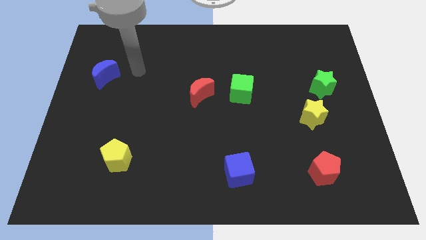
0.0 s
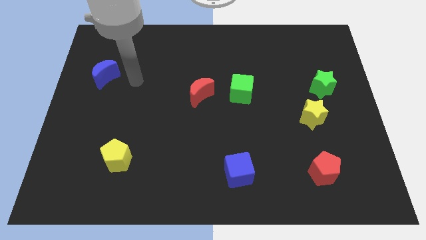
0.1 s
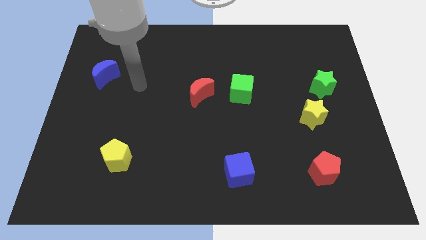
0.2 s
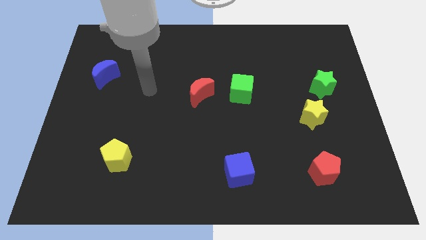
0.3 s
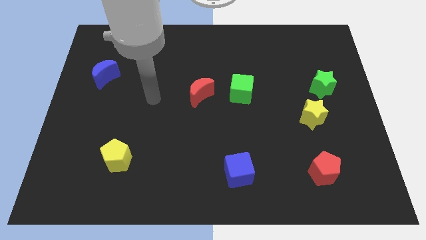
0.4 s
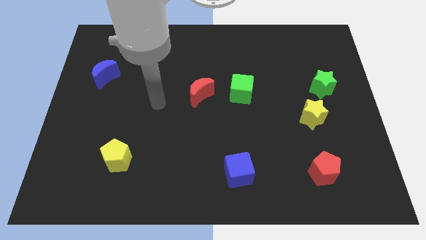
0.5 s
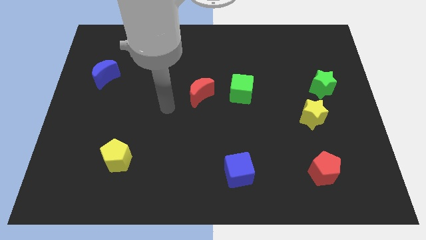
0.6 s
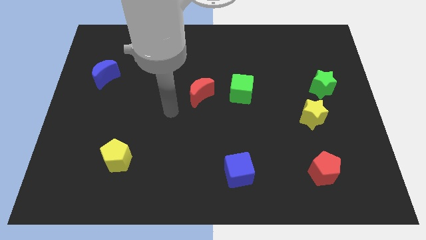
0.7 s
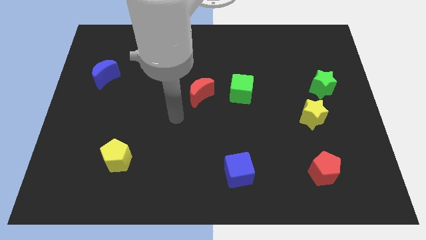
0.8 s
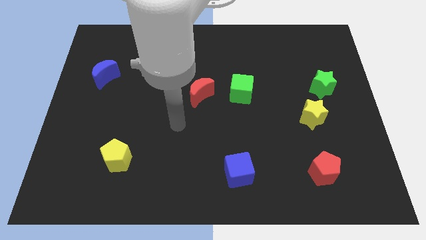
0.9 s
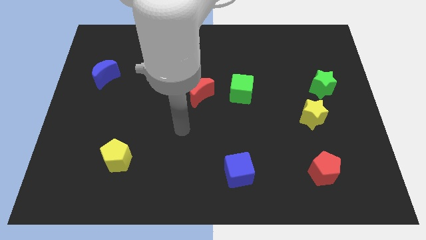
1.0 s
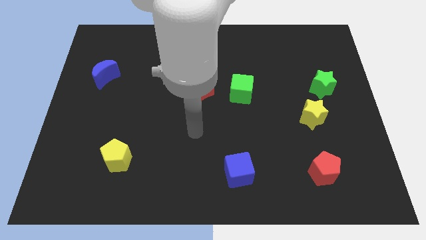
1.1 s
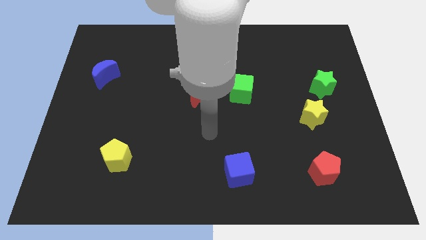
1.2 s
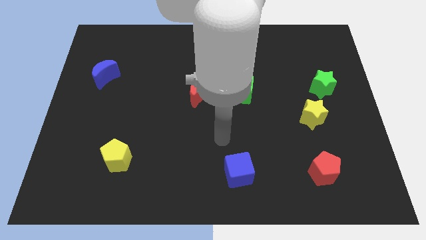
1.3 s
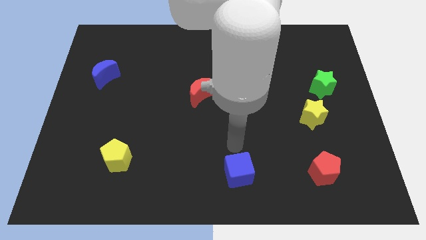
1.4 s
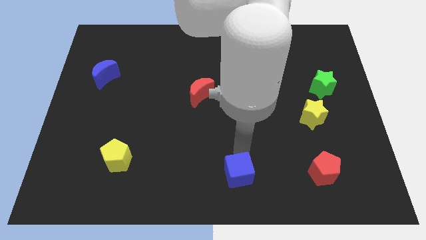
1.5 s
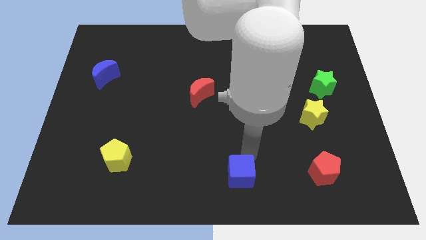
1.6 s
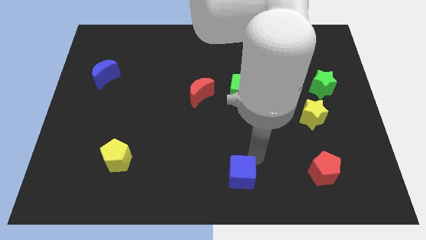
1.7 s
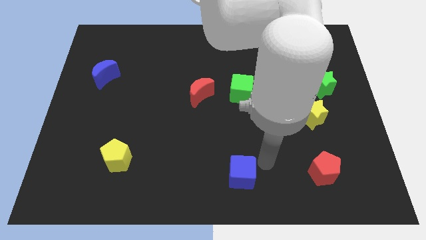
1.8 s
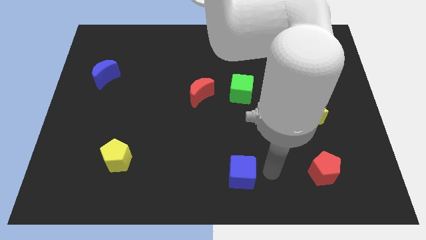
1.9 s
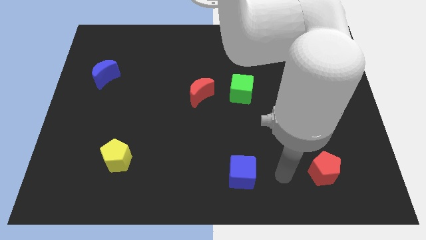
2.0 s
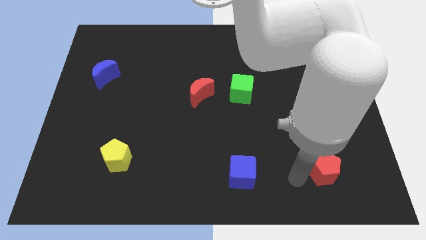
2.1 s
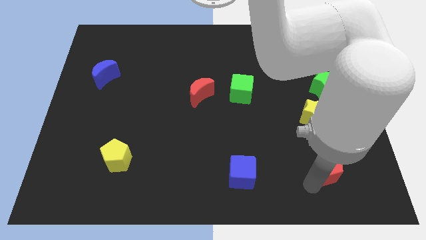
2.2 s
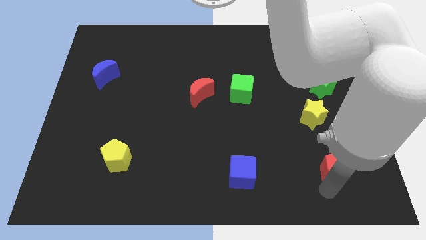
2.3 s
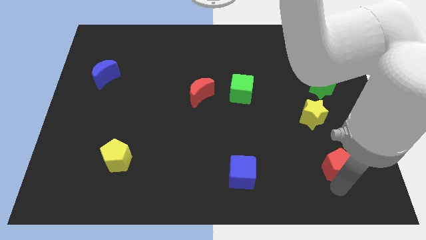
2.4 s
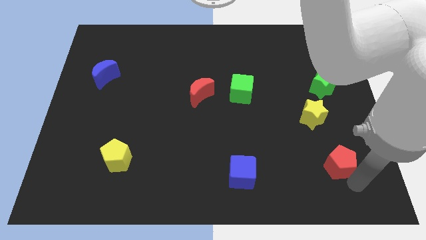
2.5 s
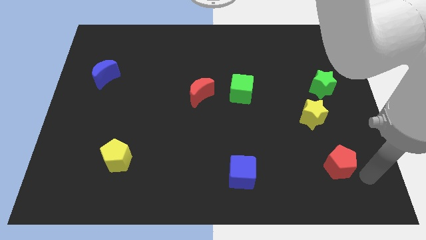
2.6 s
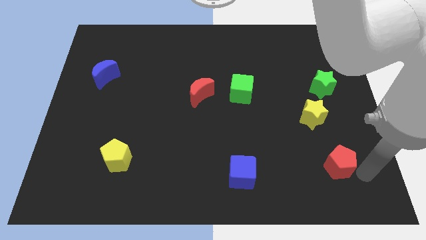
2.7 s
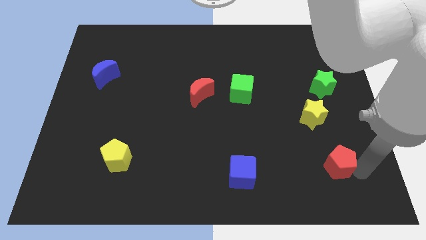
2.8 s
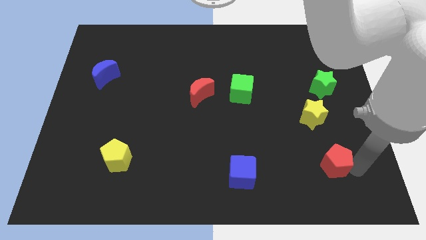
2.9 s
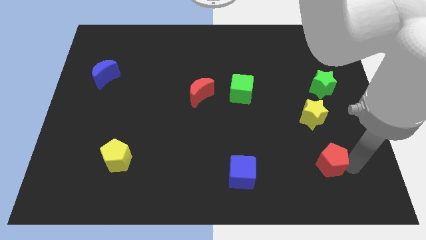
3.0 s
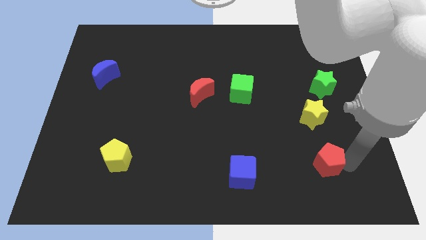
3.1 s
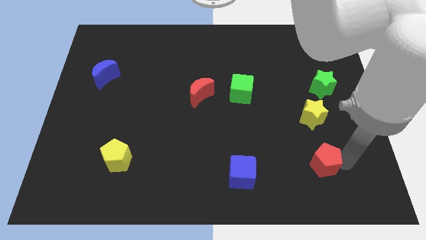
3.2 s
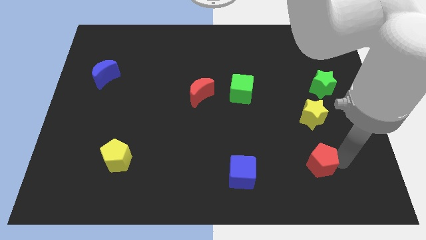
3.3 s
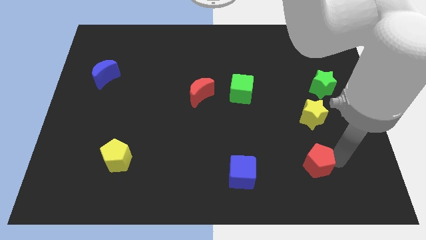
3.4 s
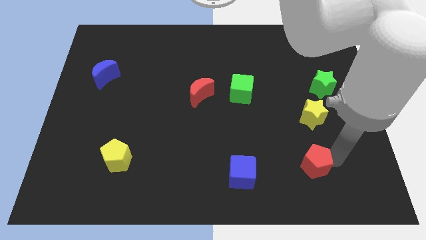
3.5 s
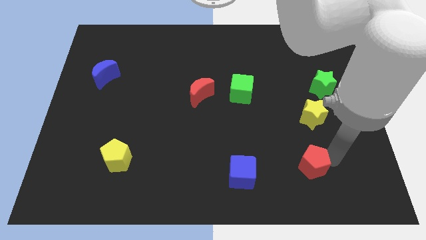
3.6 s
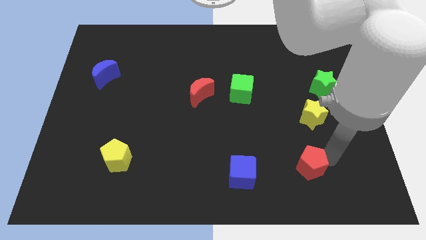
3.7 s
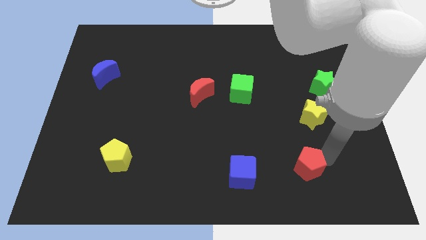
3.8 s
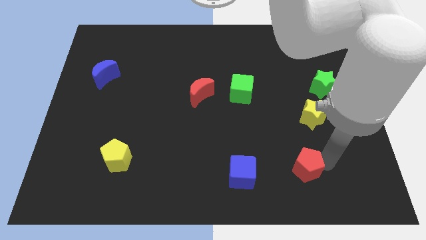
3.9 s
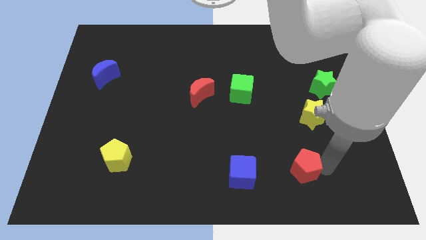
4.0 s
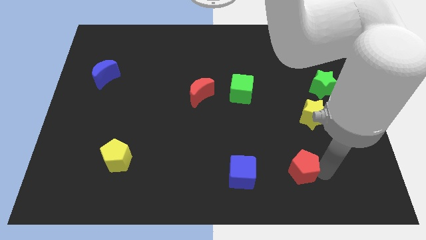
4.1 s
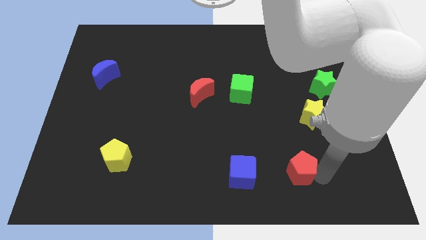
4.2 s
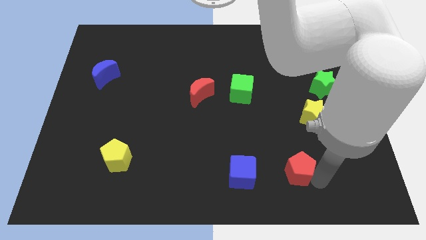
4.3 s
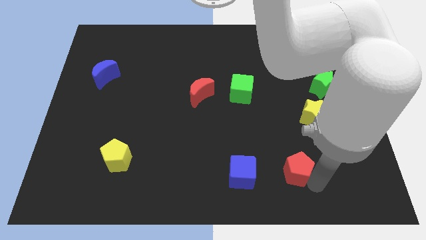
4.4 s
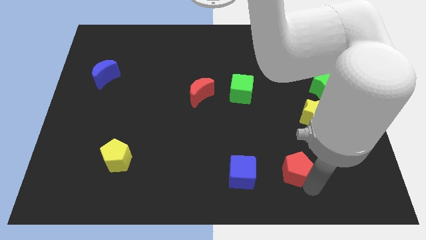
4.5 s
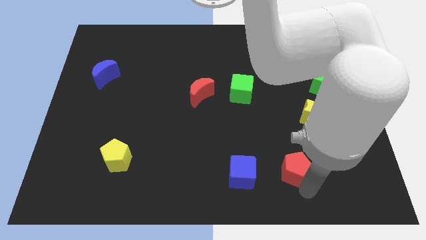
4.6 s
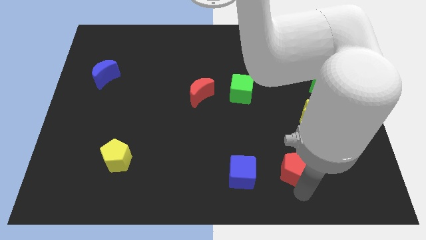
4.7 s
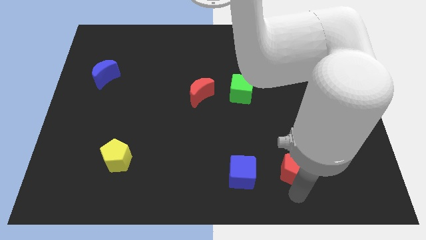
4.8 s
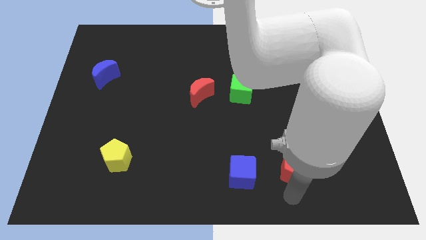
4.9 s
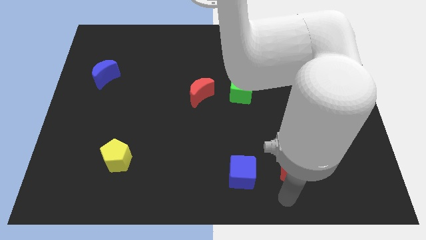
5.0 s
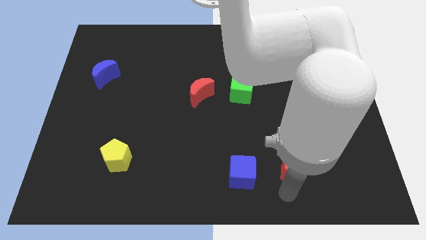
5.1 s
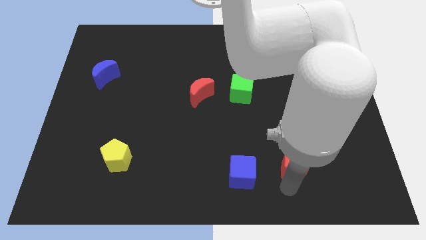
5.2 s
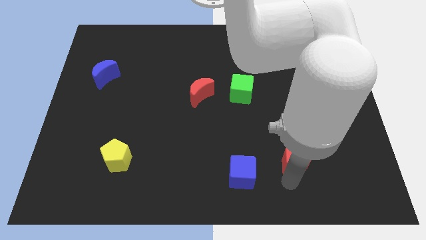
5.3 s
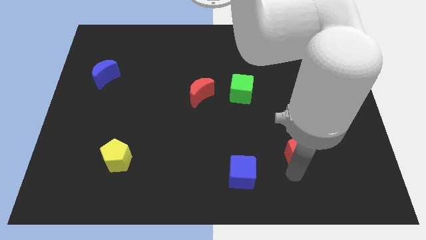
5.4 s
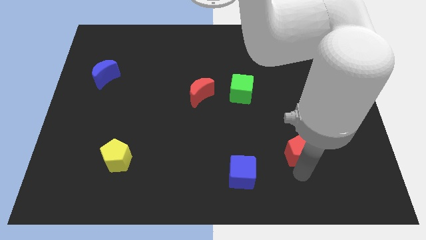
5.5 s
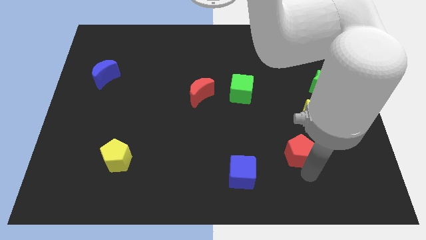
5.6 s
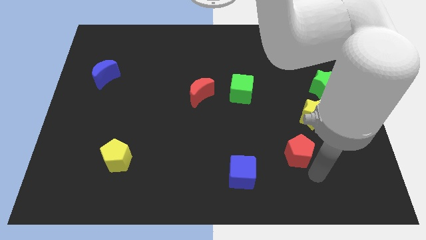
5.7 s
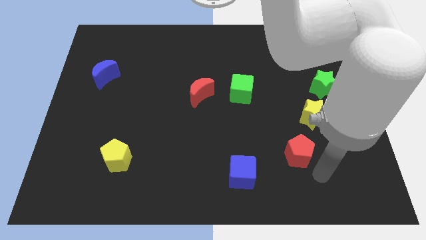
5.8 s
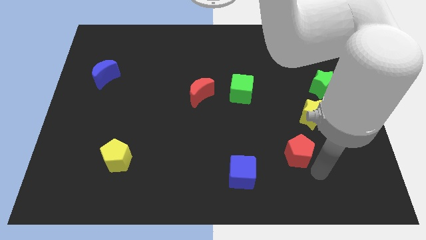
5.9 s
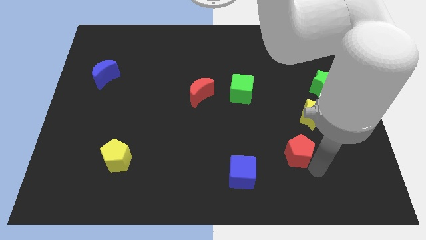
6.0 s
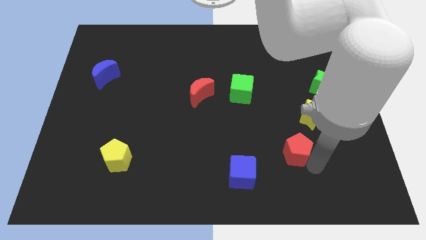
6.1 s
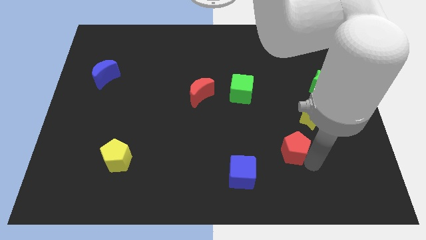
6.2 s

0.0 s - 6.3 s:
move the red pentagon a little bit upwards and to the left

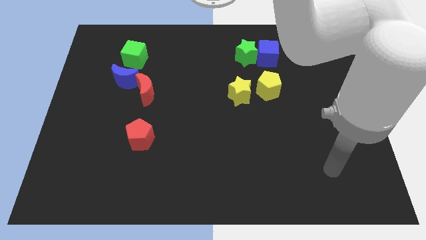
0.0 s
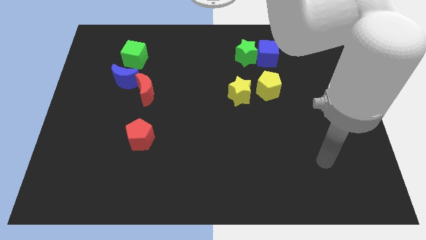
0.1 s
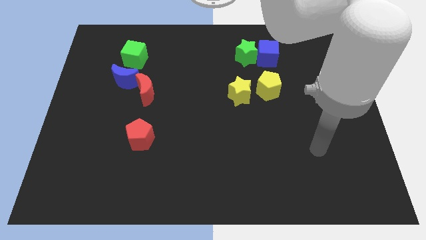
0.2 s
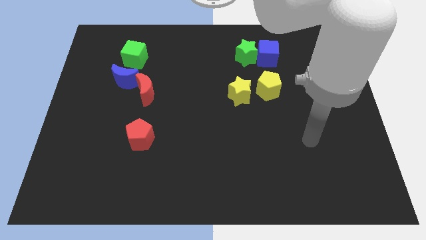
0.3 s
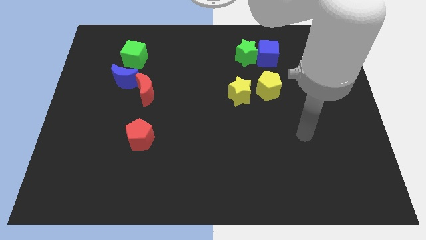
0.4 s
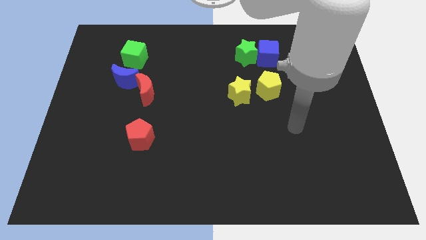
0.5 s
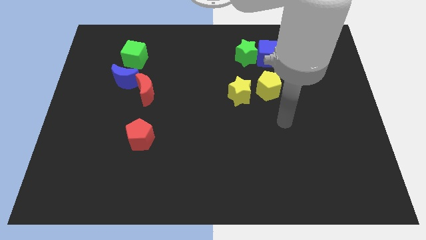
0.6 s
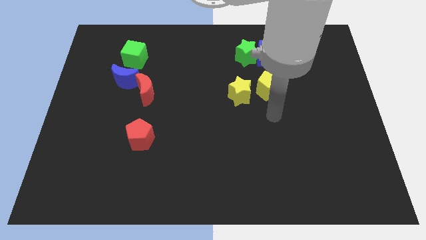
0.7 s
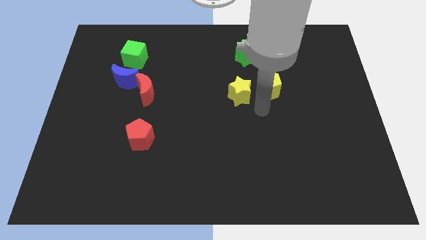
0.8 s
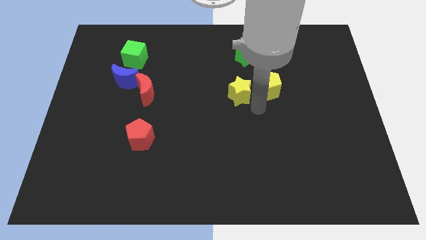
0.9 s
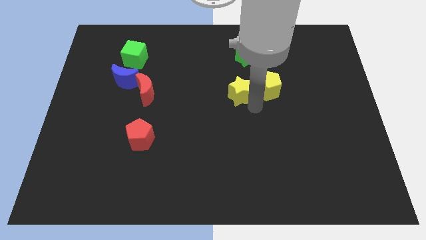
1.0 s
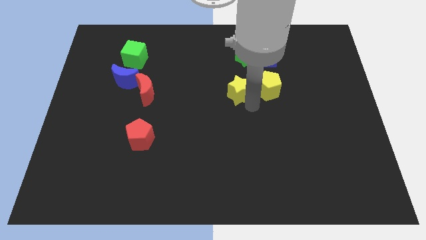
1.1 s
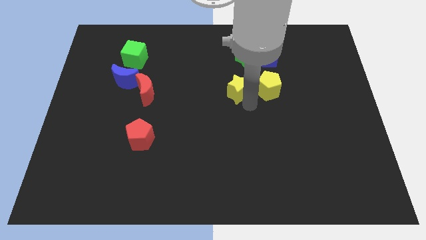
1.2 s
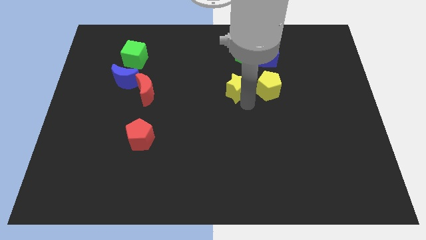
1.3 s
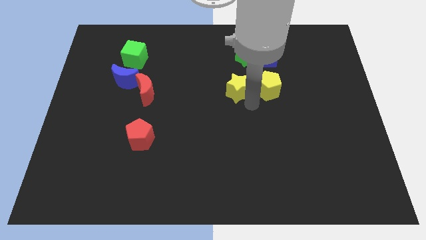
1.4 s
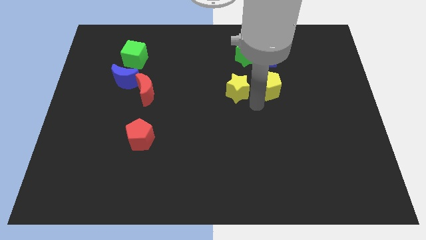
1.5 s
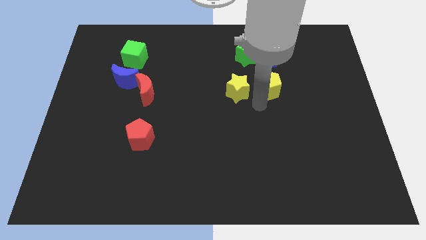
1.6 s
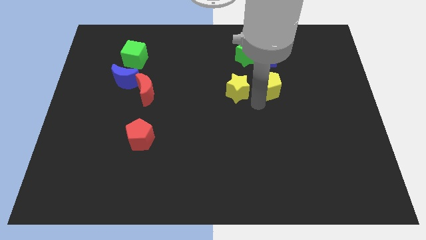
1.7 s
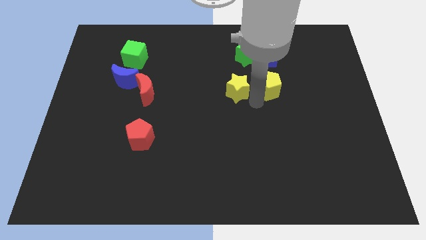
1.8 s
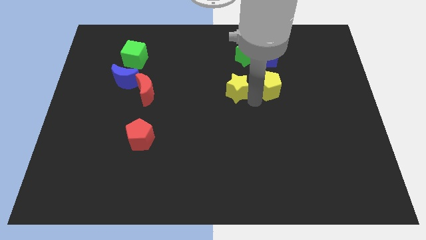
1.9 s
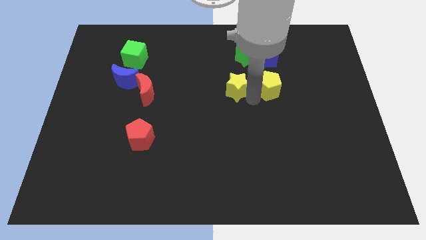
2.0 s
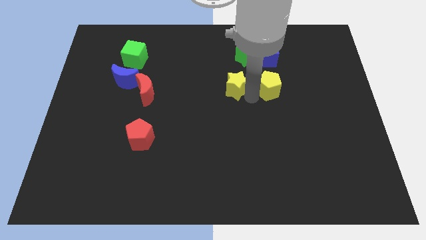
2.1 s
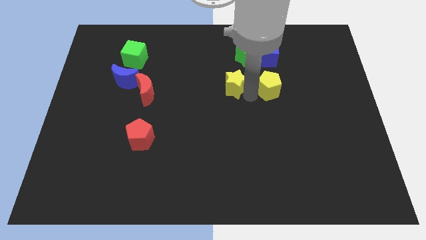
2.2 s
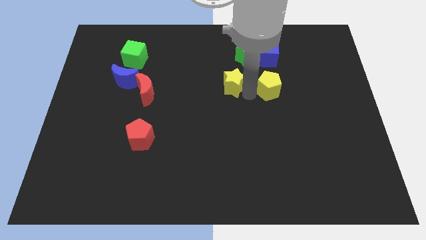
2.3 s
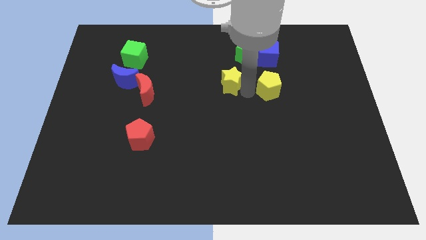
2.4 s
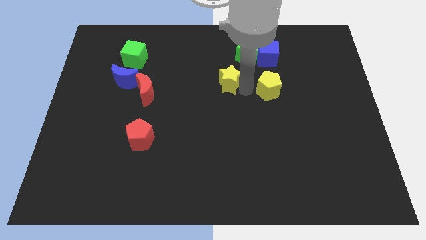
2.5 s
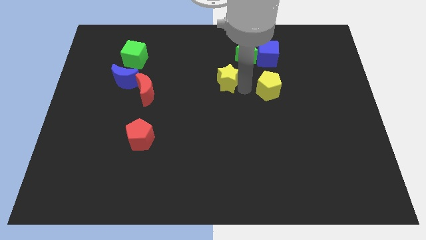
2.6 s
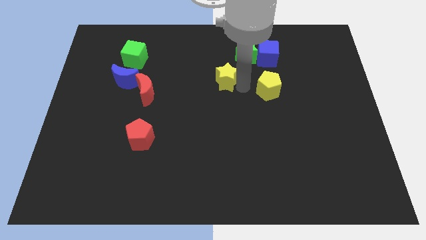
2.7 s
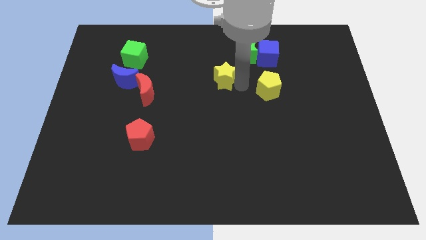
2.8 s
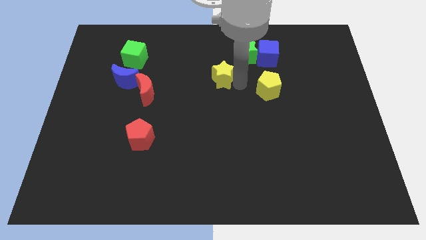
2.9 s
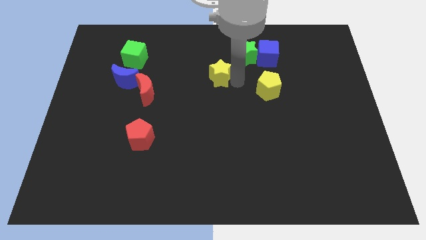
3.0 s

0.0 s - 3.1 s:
slightly move the yellow star upwards and to the left
